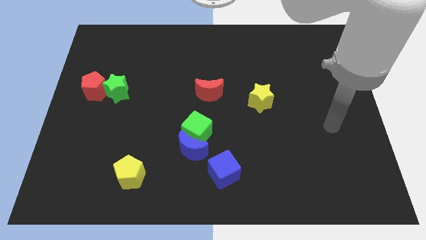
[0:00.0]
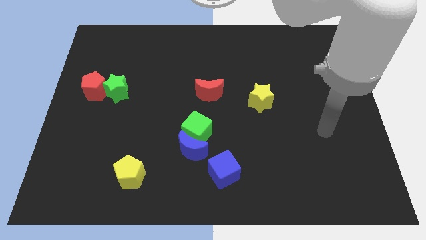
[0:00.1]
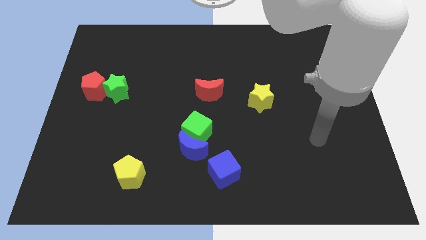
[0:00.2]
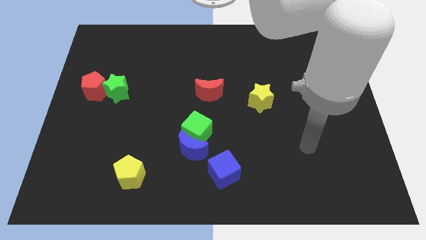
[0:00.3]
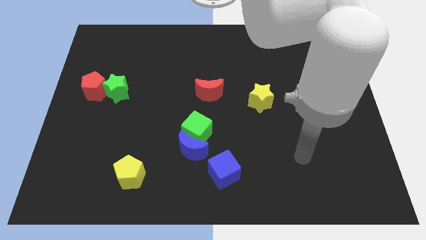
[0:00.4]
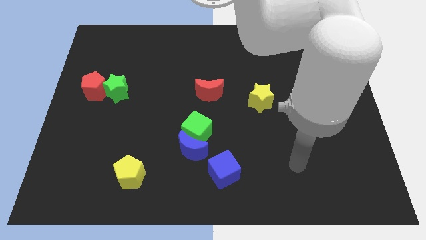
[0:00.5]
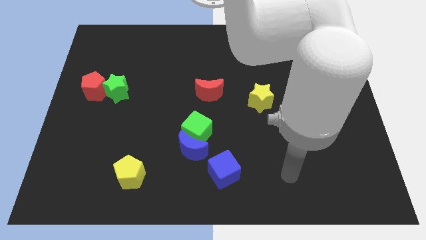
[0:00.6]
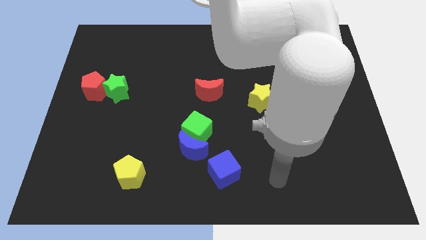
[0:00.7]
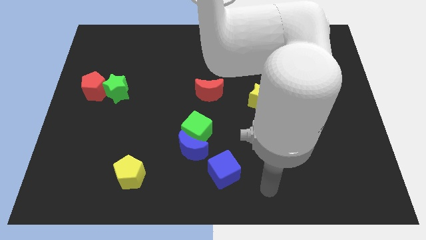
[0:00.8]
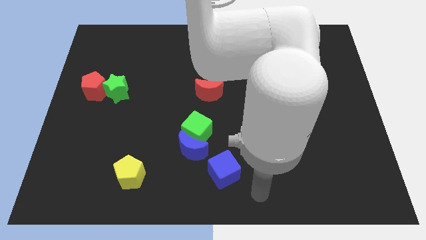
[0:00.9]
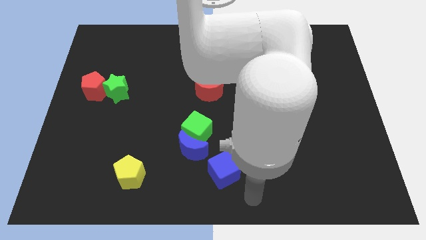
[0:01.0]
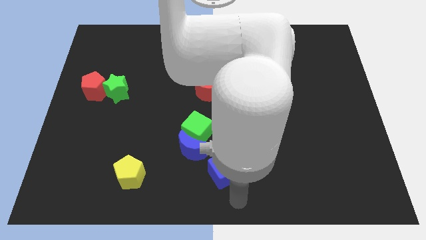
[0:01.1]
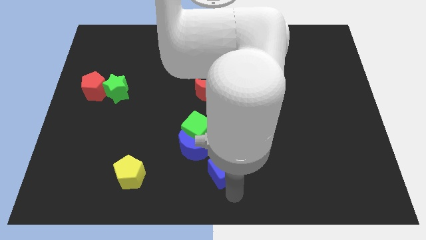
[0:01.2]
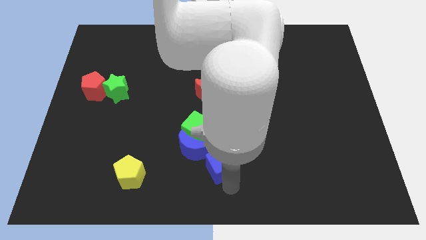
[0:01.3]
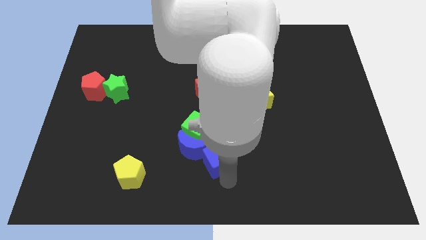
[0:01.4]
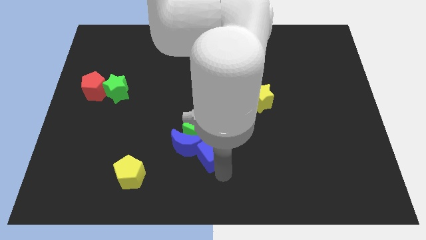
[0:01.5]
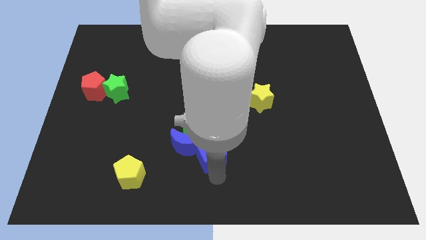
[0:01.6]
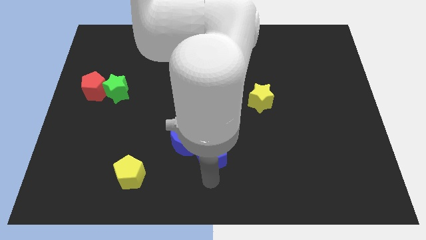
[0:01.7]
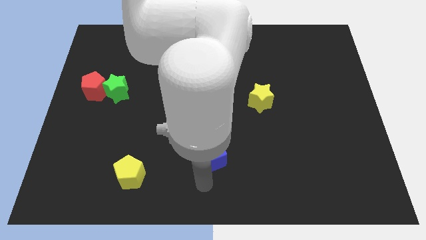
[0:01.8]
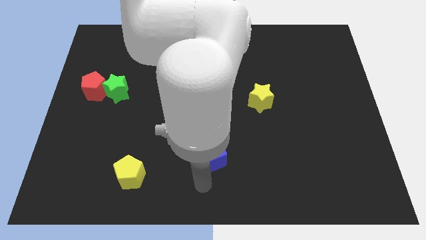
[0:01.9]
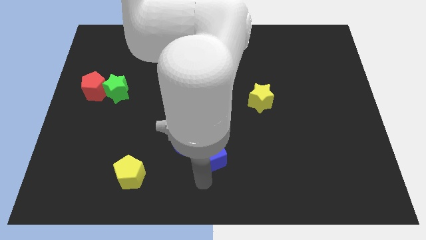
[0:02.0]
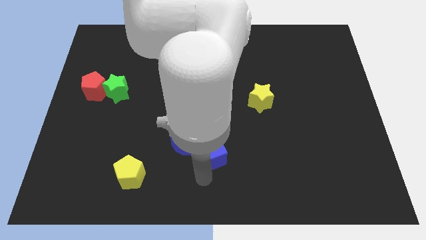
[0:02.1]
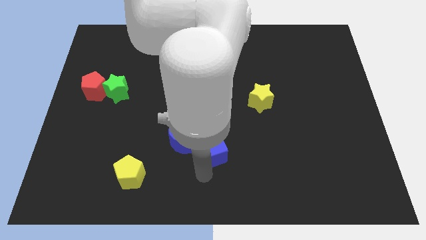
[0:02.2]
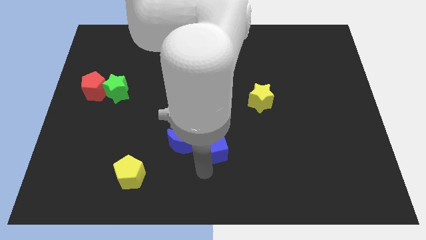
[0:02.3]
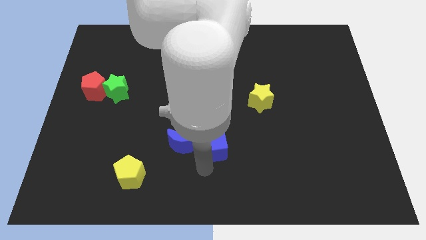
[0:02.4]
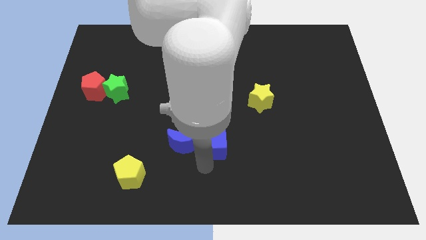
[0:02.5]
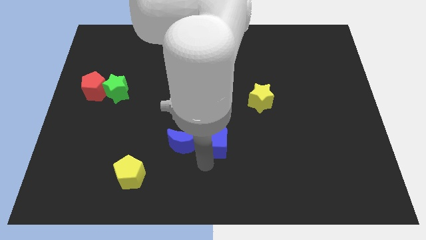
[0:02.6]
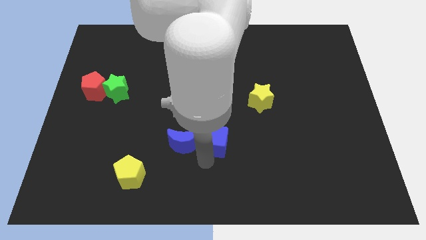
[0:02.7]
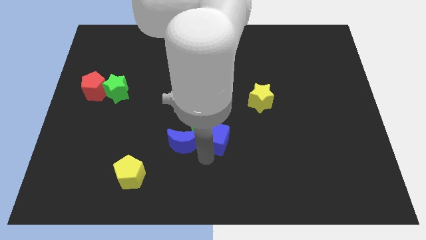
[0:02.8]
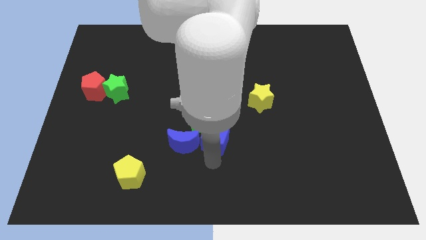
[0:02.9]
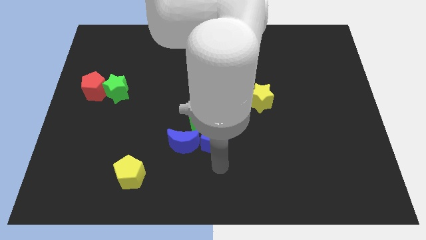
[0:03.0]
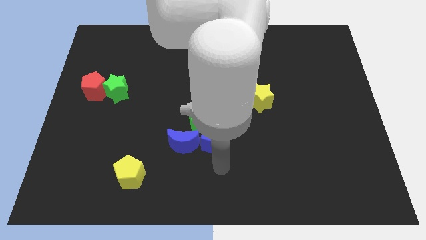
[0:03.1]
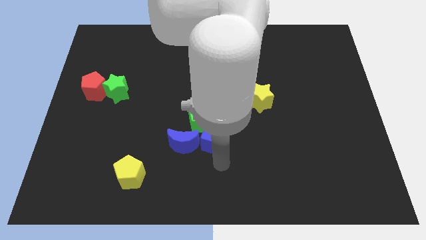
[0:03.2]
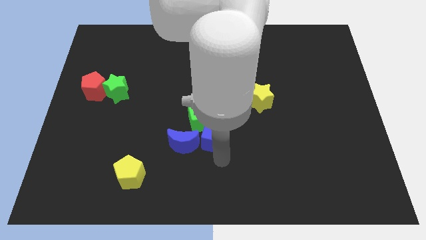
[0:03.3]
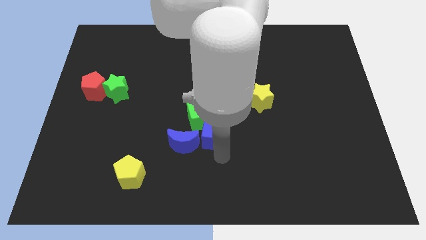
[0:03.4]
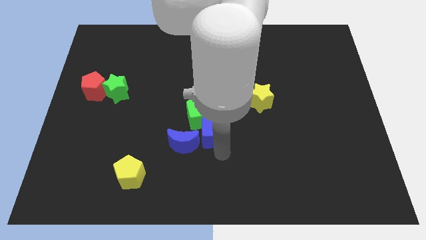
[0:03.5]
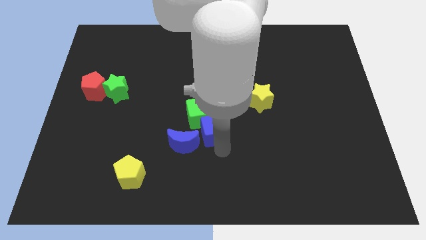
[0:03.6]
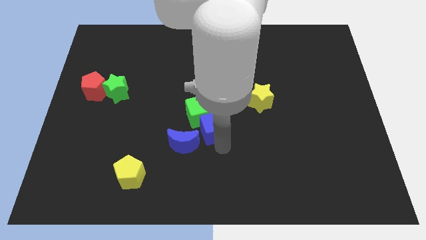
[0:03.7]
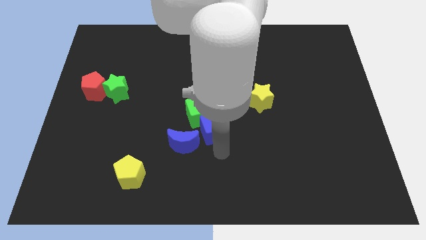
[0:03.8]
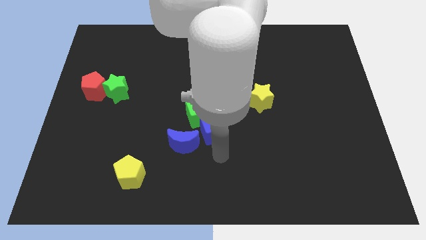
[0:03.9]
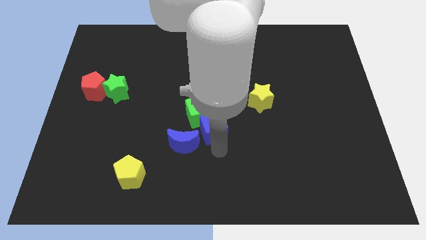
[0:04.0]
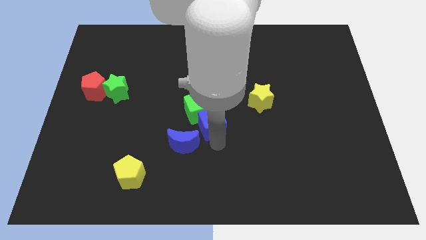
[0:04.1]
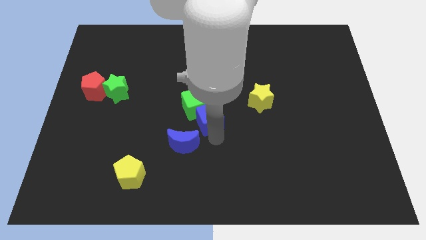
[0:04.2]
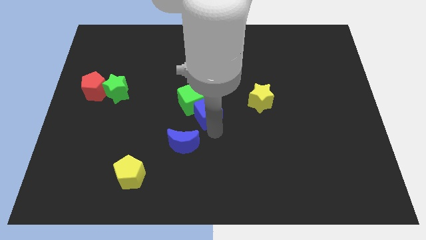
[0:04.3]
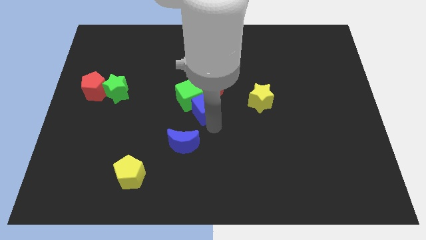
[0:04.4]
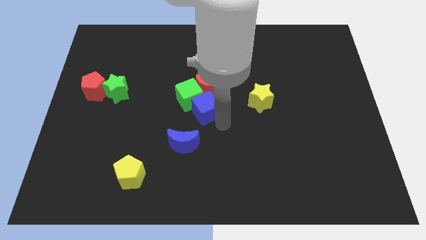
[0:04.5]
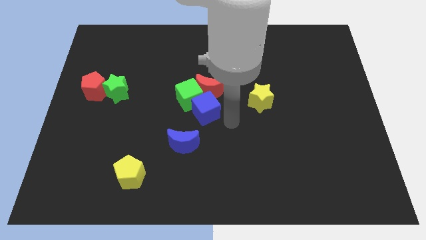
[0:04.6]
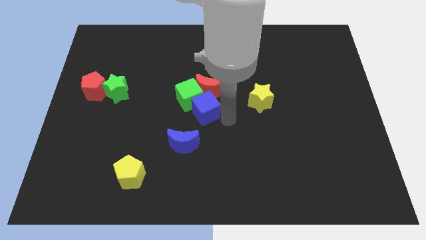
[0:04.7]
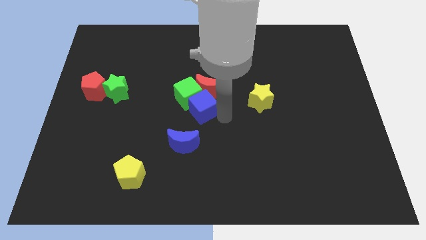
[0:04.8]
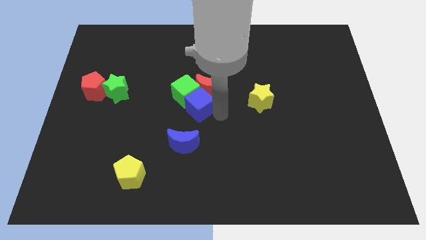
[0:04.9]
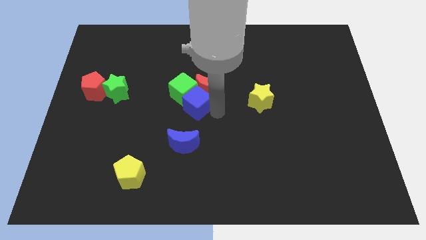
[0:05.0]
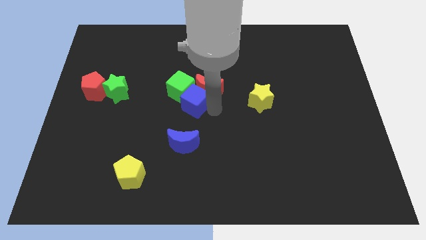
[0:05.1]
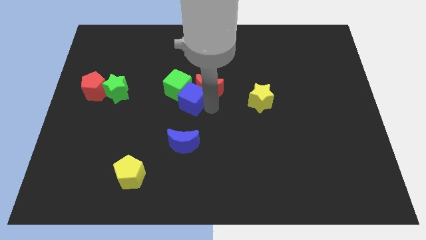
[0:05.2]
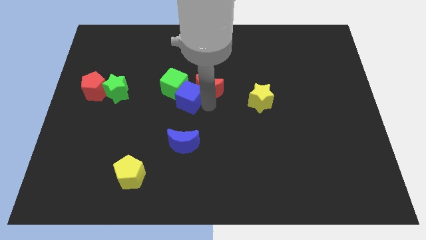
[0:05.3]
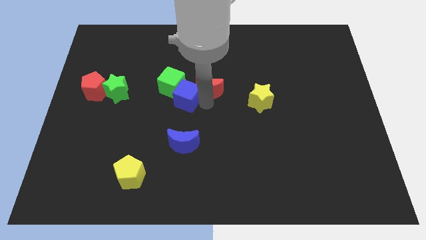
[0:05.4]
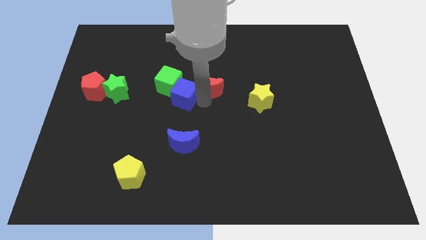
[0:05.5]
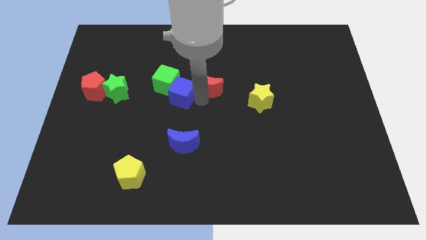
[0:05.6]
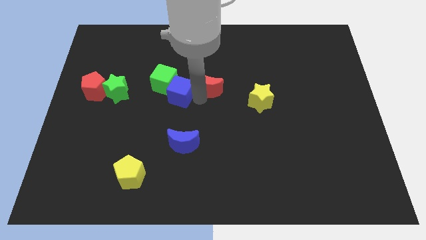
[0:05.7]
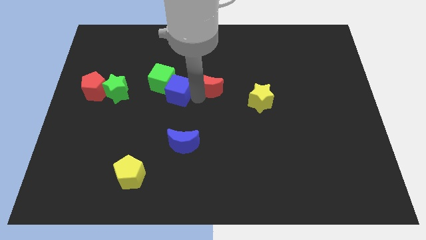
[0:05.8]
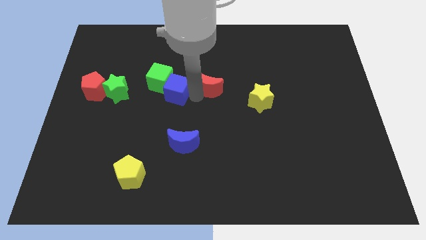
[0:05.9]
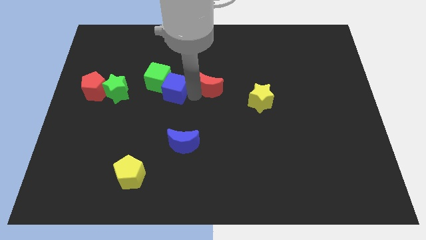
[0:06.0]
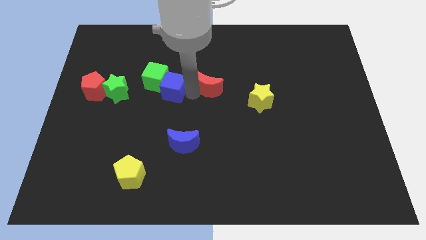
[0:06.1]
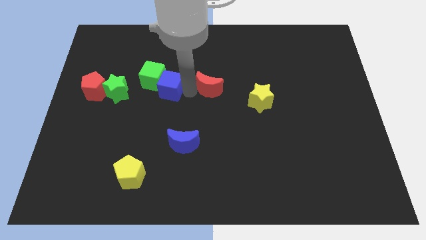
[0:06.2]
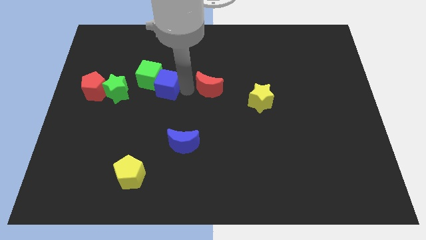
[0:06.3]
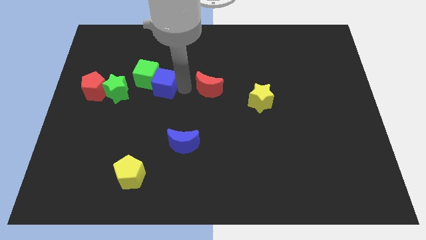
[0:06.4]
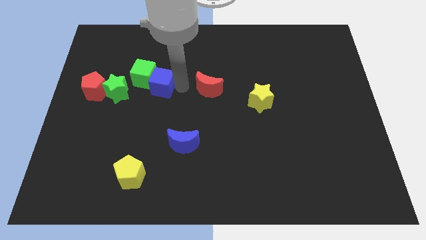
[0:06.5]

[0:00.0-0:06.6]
move the blue cube to the right of the red pentagon
